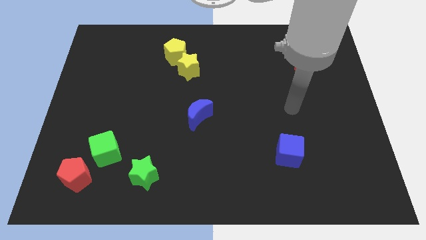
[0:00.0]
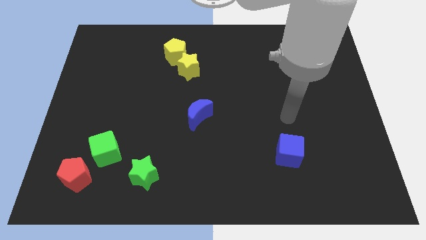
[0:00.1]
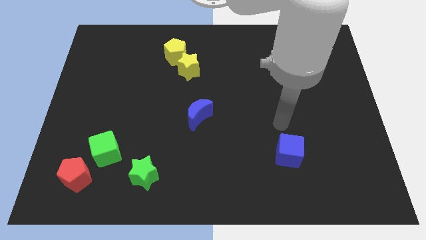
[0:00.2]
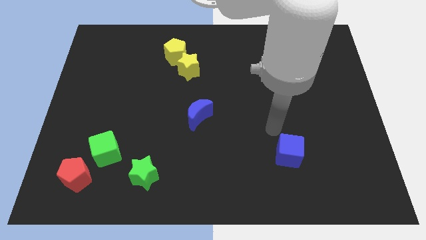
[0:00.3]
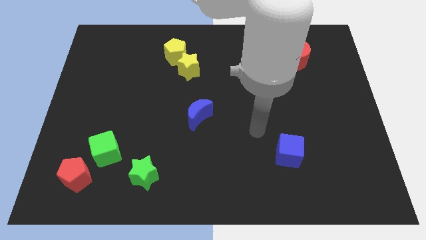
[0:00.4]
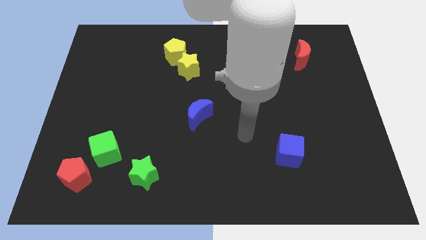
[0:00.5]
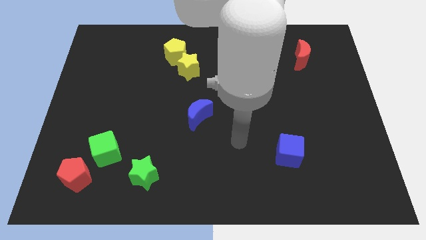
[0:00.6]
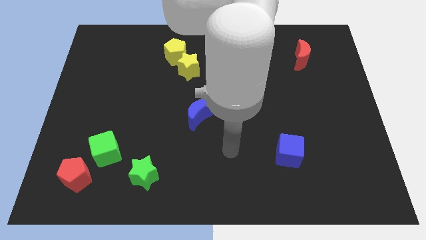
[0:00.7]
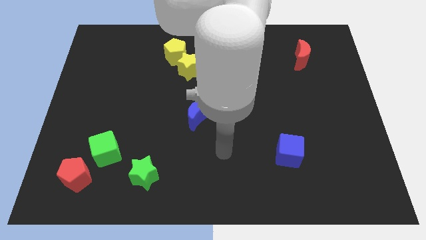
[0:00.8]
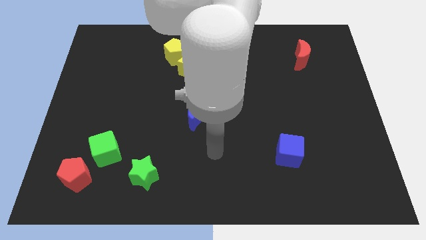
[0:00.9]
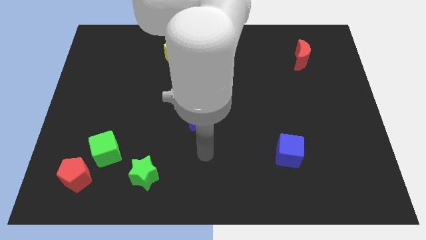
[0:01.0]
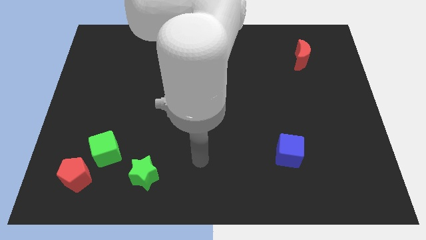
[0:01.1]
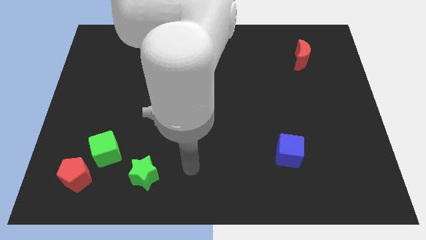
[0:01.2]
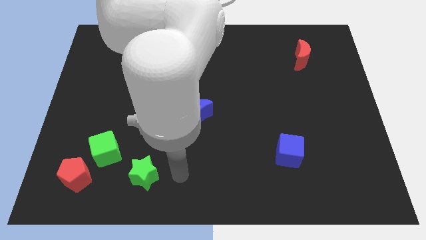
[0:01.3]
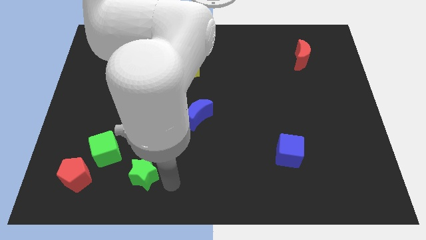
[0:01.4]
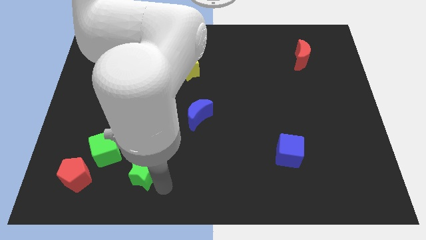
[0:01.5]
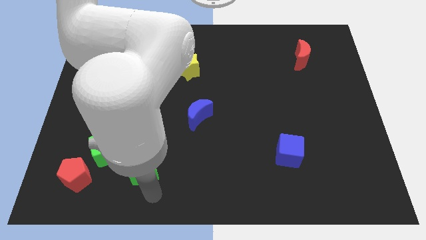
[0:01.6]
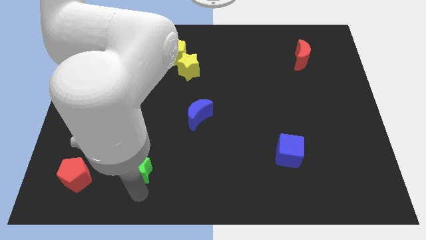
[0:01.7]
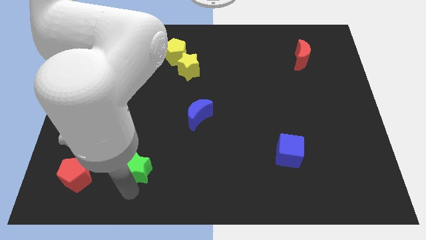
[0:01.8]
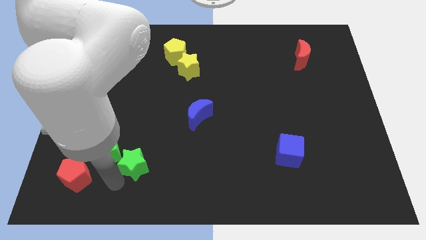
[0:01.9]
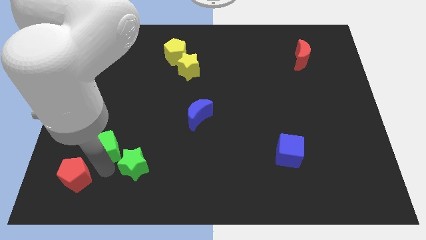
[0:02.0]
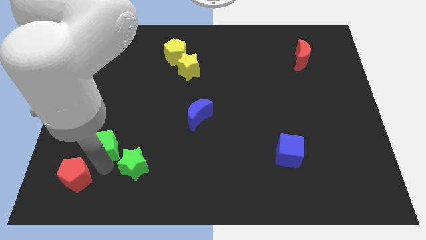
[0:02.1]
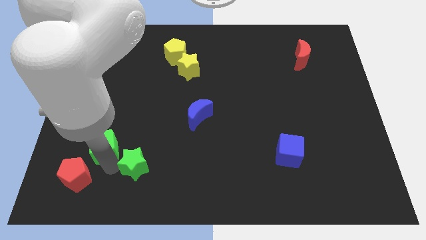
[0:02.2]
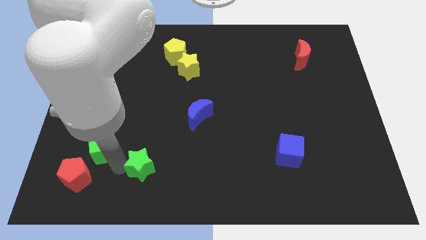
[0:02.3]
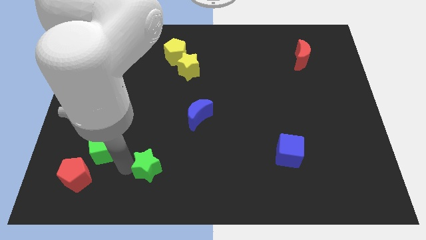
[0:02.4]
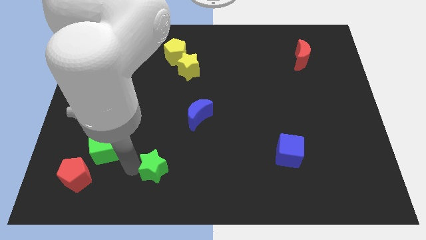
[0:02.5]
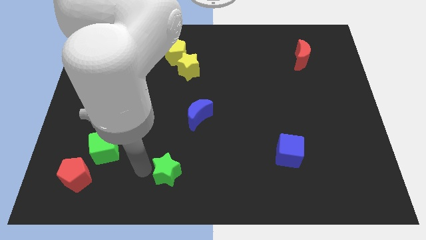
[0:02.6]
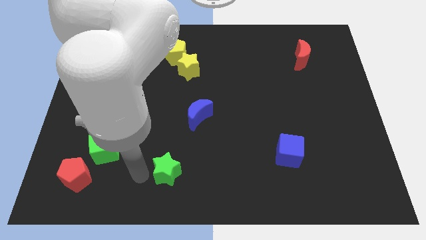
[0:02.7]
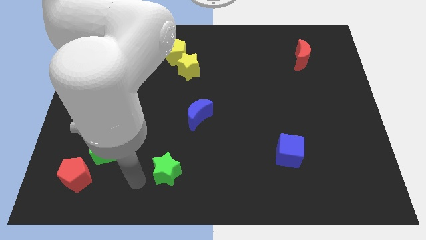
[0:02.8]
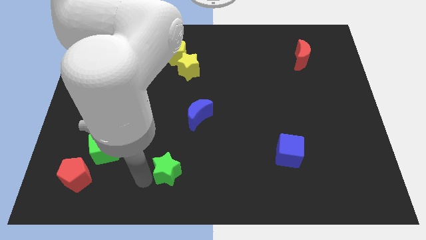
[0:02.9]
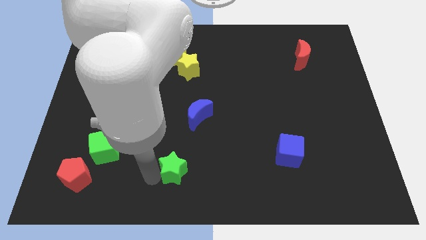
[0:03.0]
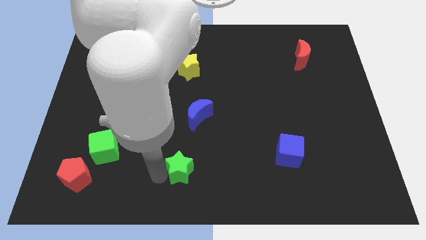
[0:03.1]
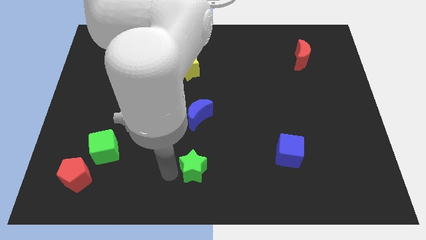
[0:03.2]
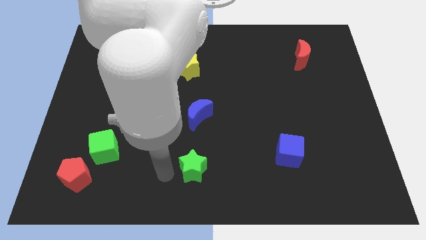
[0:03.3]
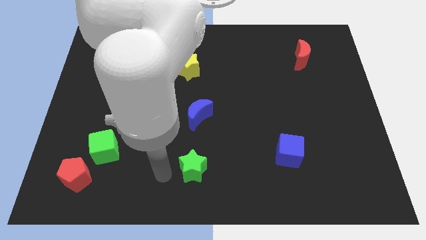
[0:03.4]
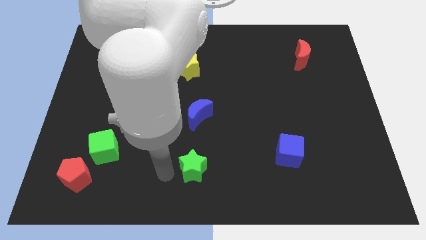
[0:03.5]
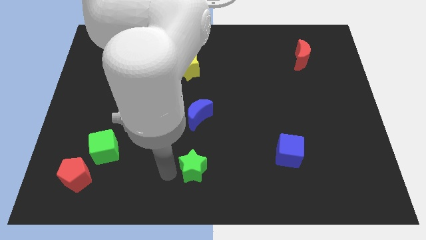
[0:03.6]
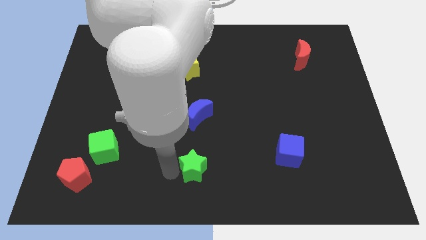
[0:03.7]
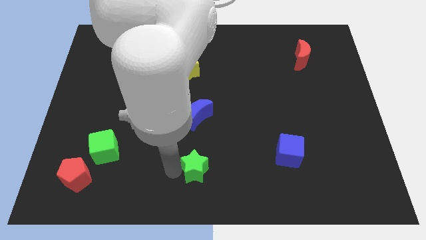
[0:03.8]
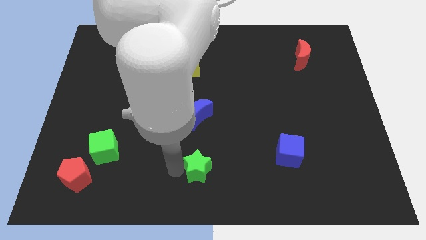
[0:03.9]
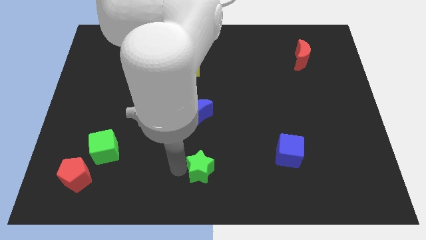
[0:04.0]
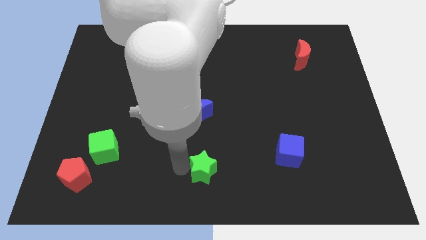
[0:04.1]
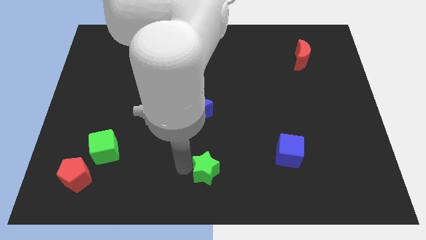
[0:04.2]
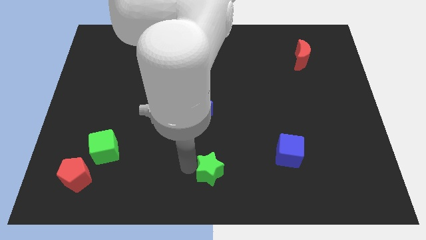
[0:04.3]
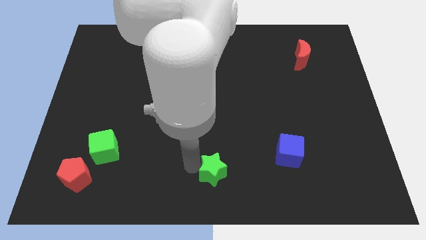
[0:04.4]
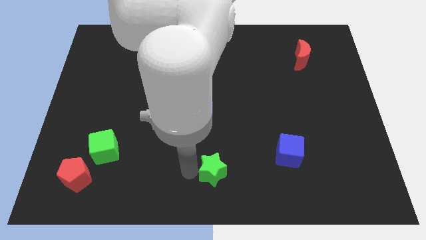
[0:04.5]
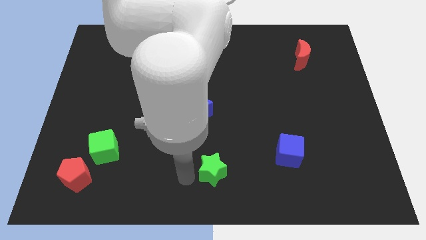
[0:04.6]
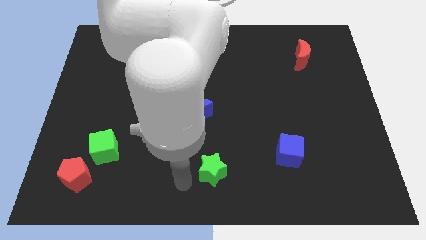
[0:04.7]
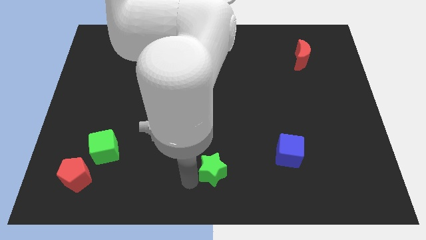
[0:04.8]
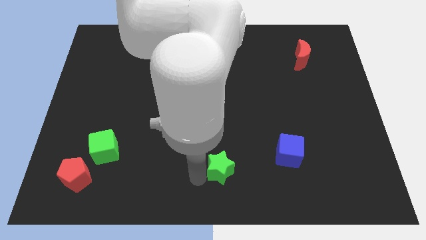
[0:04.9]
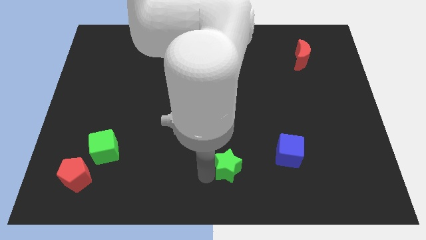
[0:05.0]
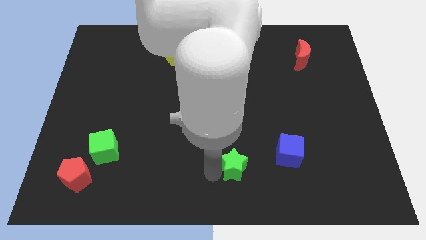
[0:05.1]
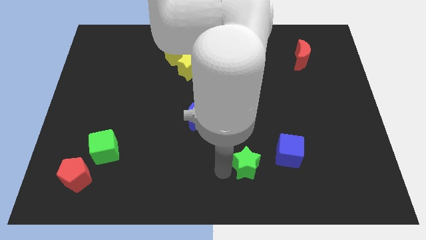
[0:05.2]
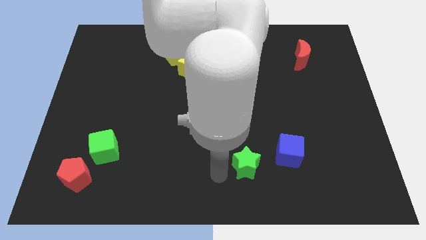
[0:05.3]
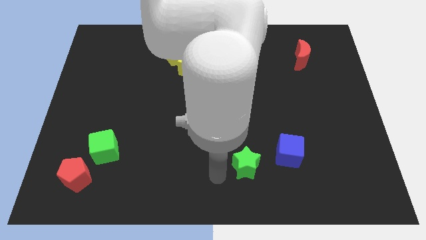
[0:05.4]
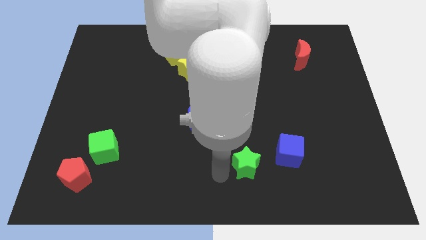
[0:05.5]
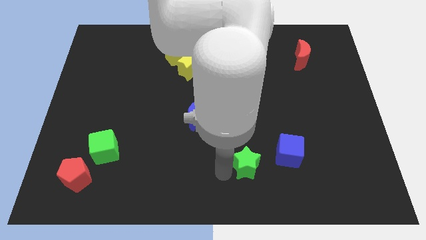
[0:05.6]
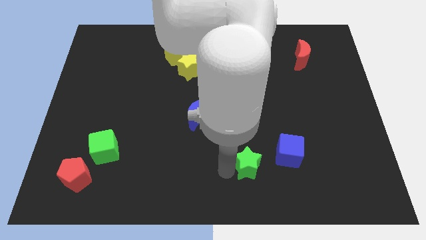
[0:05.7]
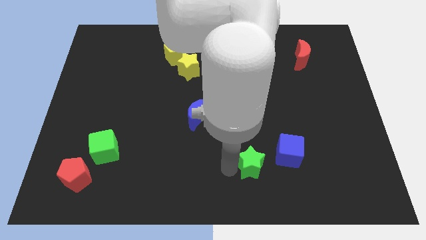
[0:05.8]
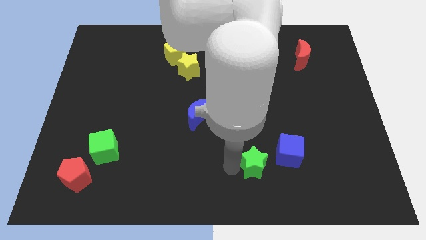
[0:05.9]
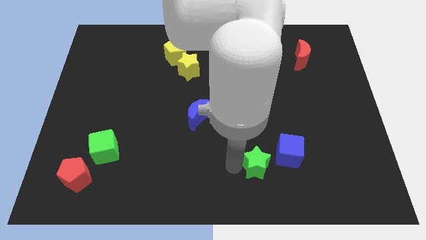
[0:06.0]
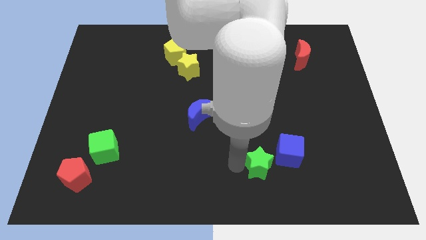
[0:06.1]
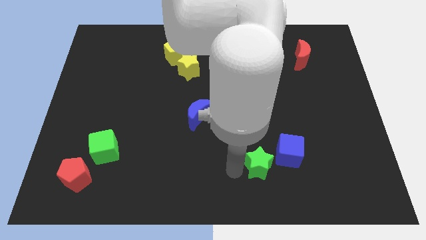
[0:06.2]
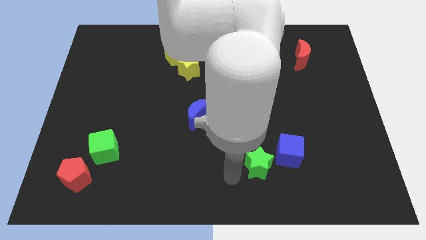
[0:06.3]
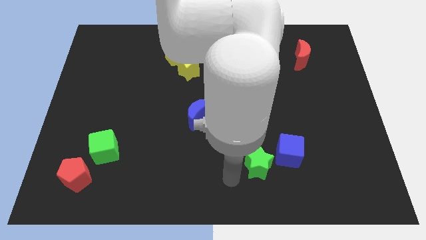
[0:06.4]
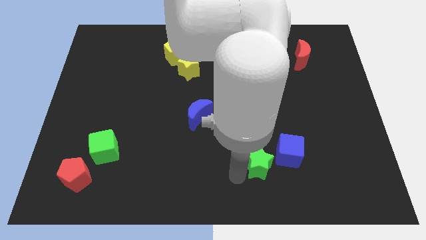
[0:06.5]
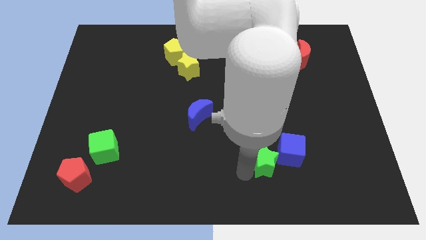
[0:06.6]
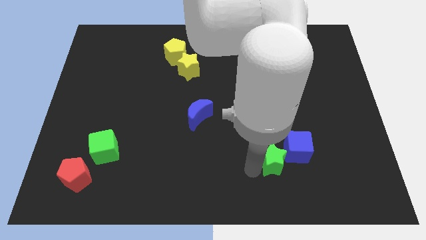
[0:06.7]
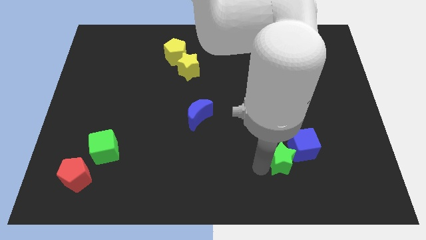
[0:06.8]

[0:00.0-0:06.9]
push the green star towards the blue cube
